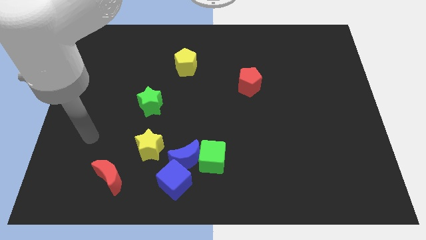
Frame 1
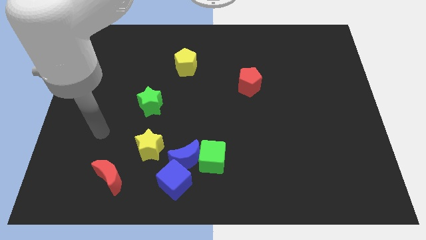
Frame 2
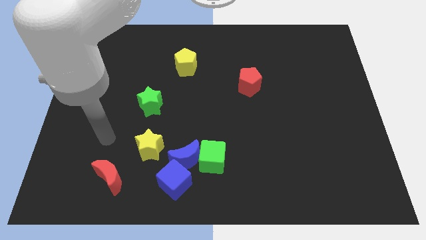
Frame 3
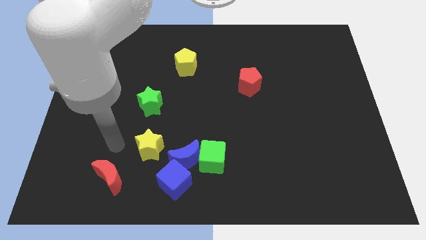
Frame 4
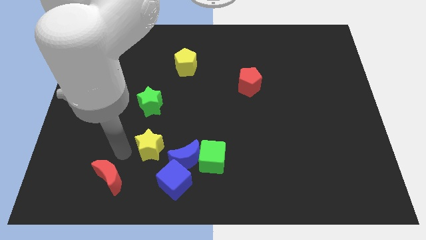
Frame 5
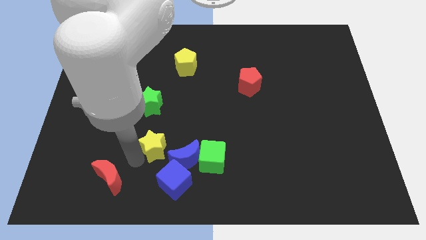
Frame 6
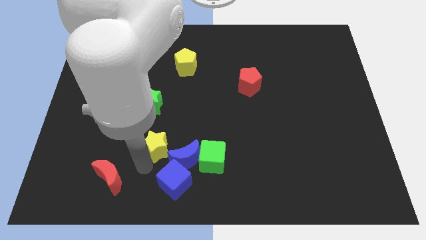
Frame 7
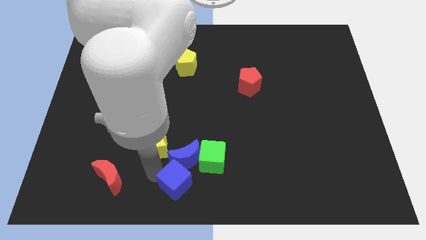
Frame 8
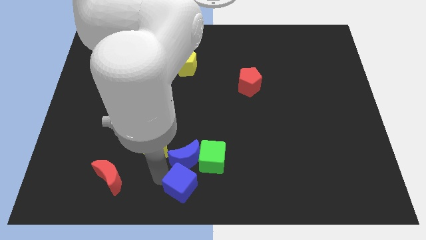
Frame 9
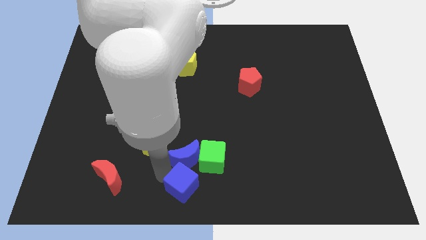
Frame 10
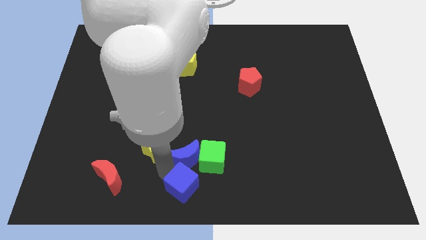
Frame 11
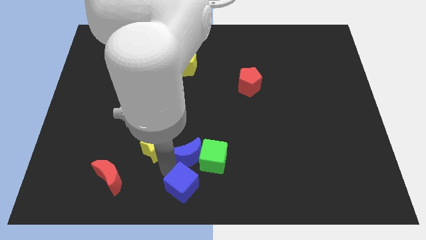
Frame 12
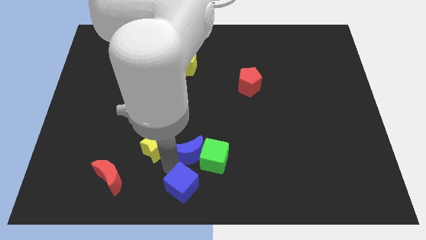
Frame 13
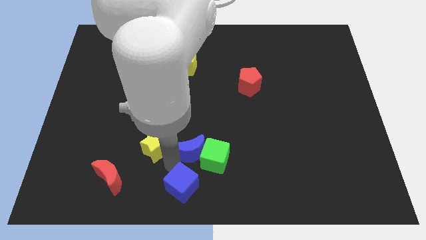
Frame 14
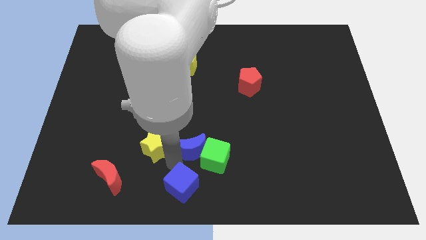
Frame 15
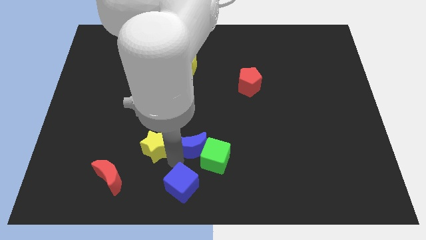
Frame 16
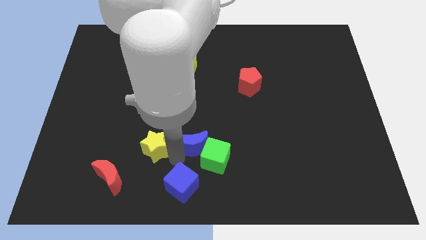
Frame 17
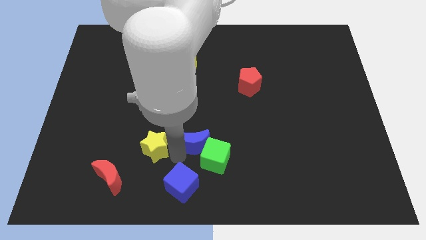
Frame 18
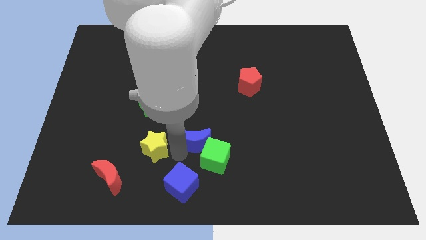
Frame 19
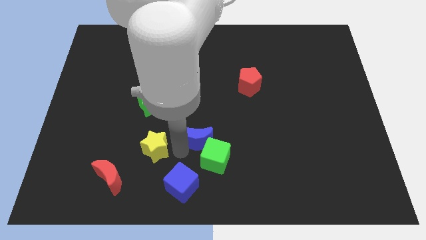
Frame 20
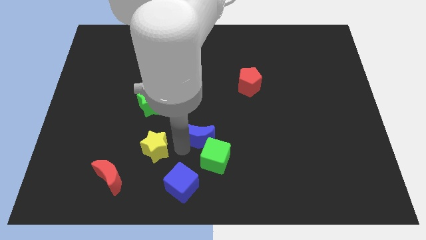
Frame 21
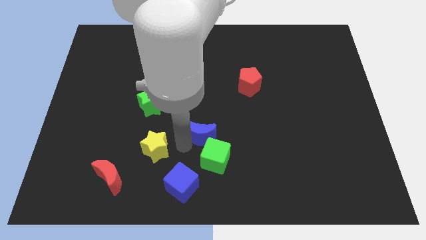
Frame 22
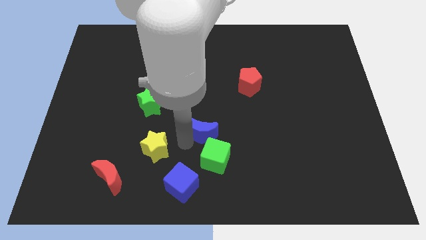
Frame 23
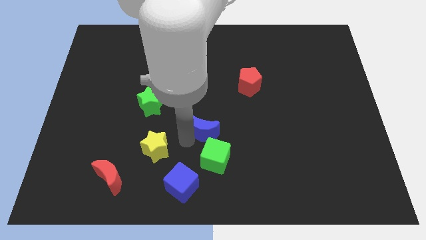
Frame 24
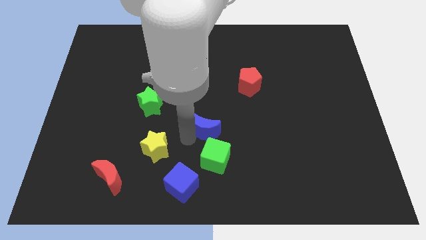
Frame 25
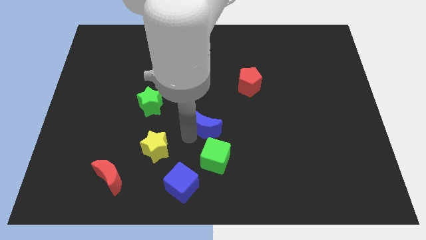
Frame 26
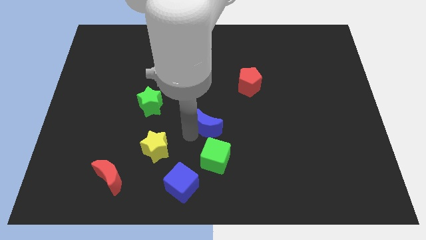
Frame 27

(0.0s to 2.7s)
separate the blue moon from the clump

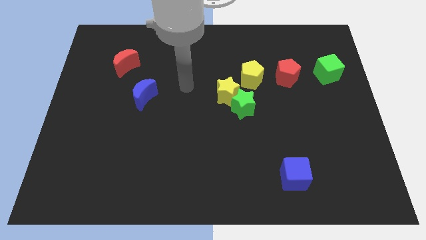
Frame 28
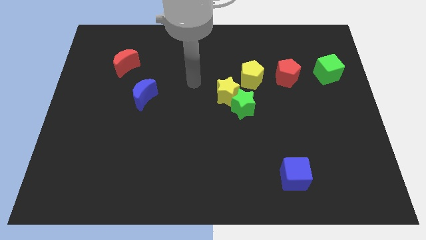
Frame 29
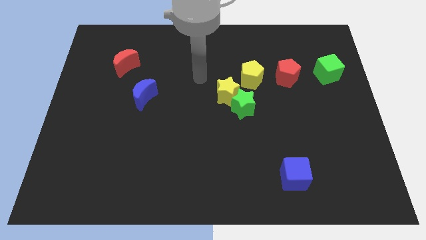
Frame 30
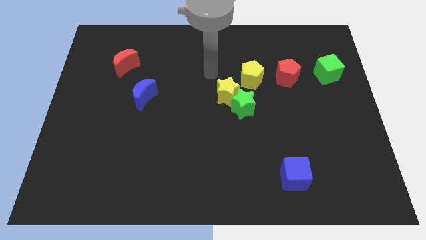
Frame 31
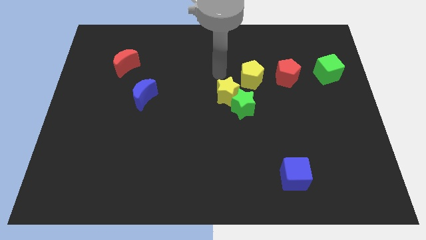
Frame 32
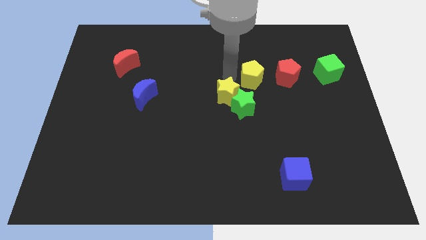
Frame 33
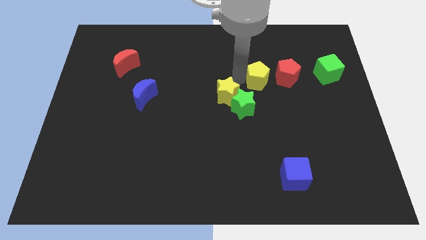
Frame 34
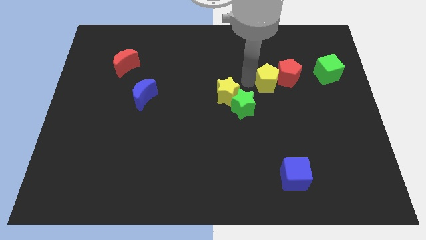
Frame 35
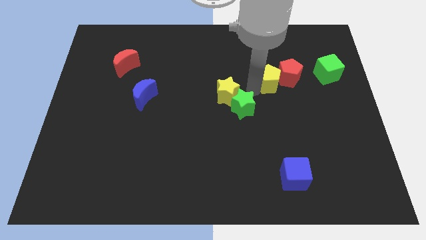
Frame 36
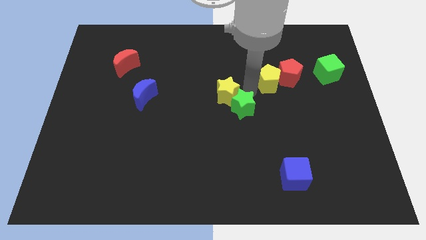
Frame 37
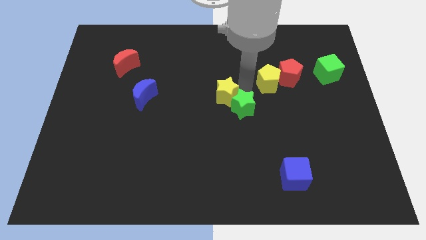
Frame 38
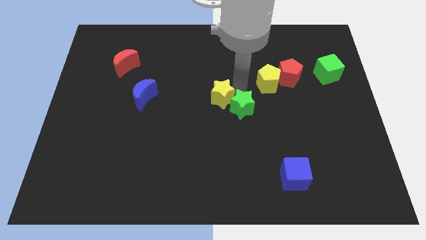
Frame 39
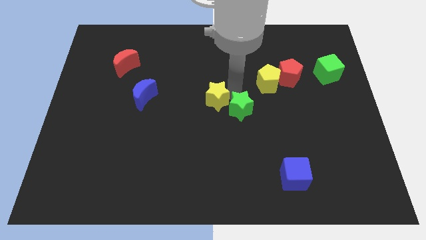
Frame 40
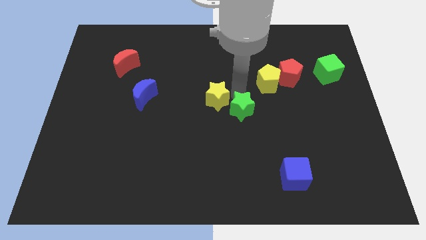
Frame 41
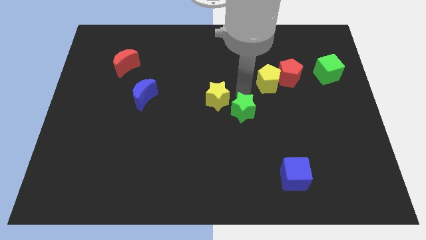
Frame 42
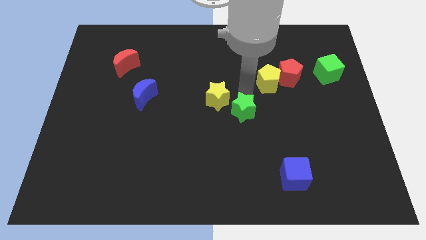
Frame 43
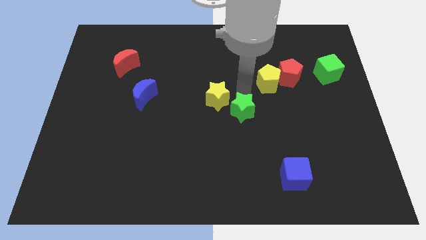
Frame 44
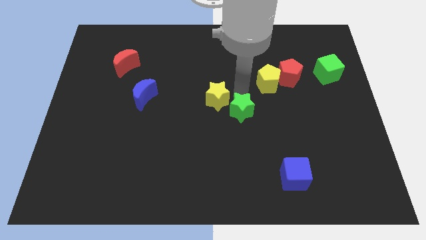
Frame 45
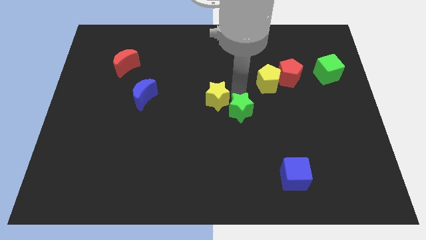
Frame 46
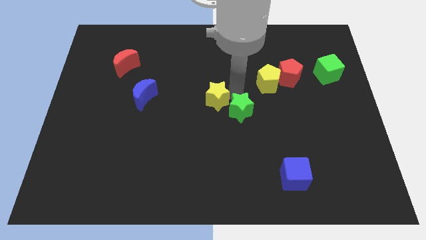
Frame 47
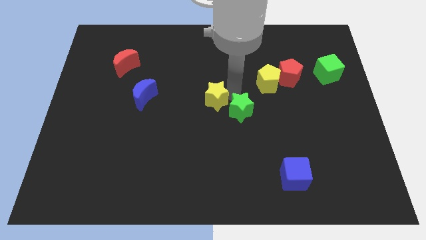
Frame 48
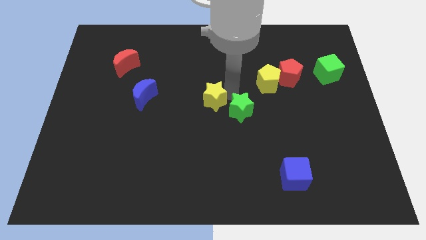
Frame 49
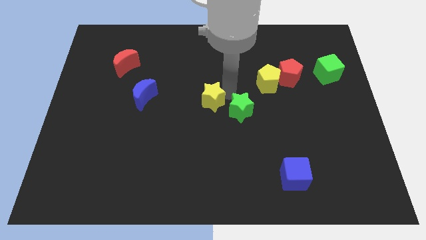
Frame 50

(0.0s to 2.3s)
separate the yellow star from the green star and yellow pentagon

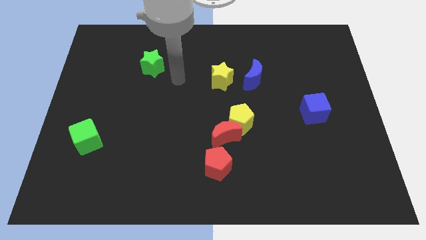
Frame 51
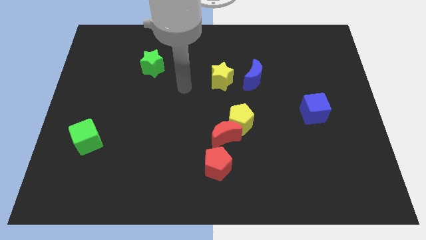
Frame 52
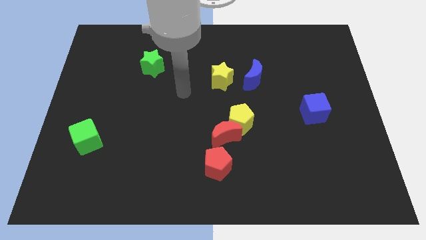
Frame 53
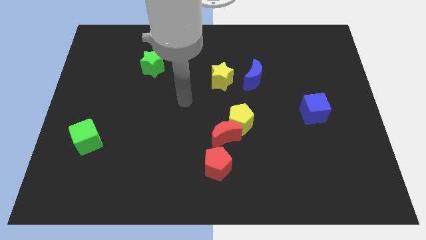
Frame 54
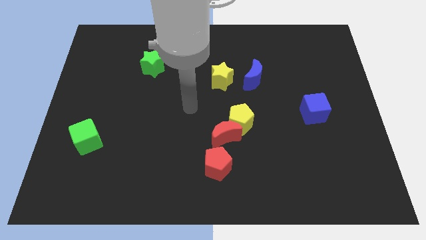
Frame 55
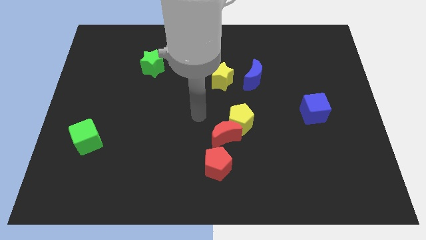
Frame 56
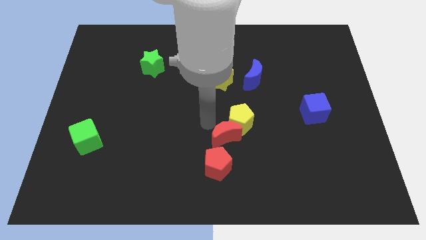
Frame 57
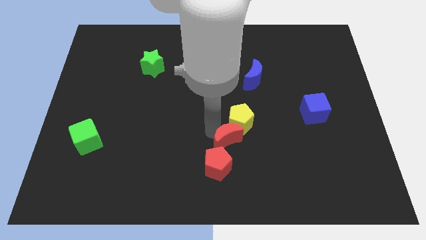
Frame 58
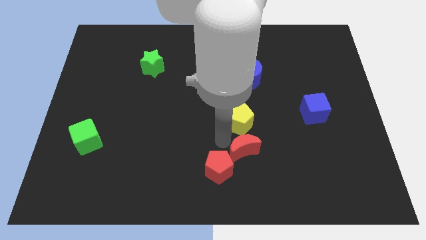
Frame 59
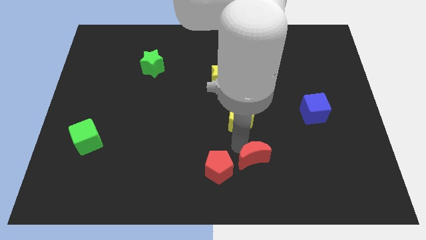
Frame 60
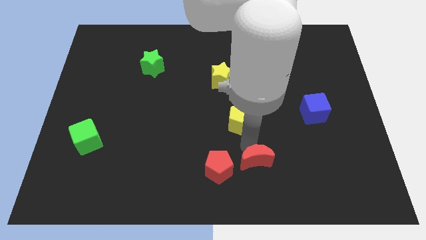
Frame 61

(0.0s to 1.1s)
move the yellow pentagon away from the red moon

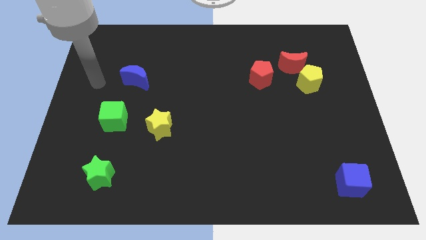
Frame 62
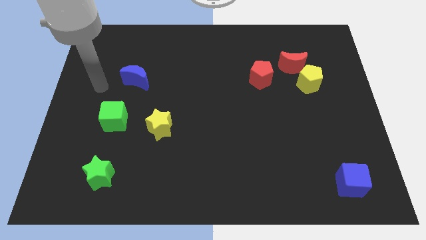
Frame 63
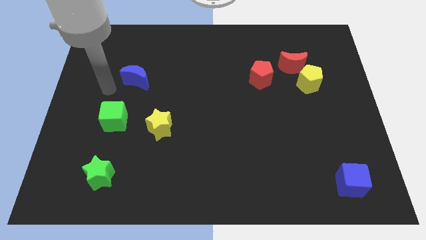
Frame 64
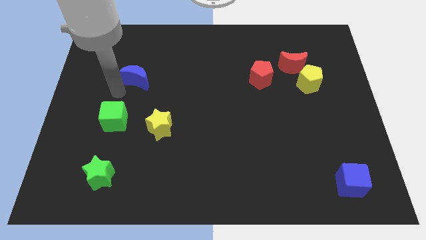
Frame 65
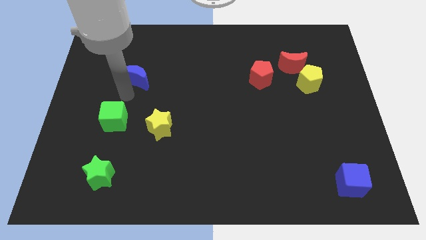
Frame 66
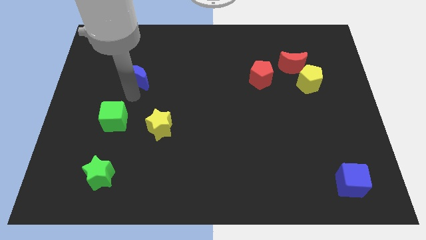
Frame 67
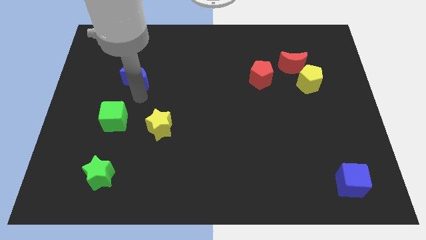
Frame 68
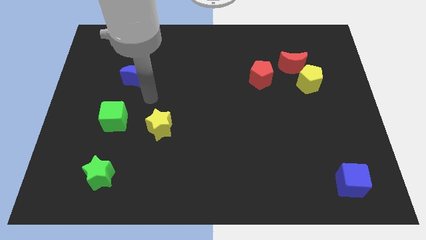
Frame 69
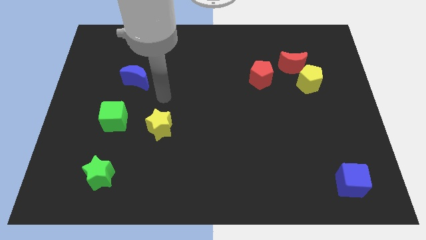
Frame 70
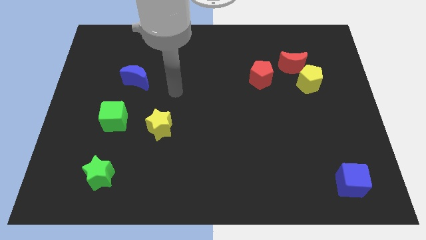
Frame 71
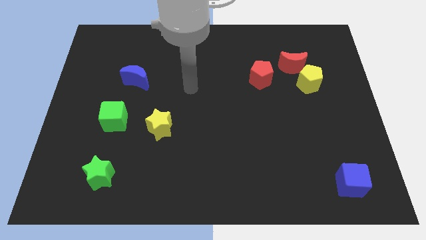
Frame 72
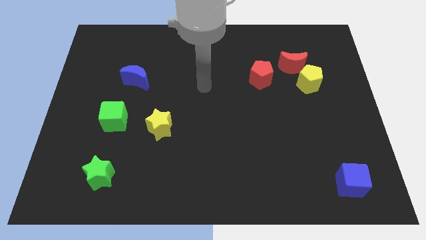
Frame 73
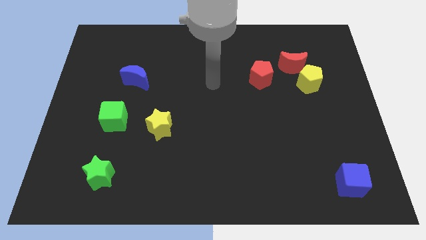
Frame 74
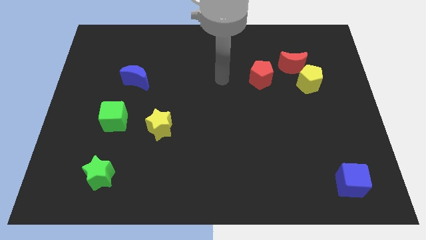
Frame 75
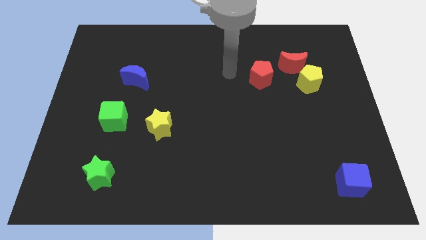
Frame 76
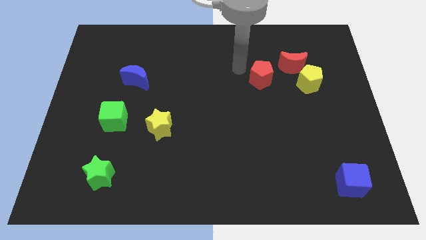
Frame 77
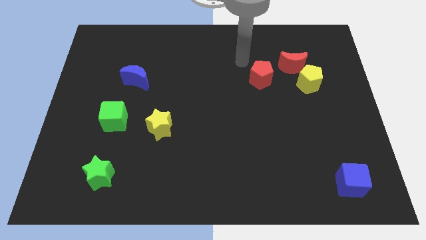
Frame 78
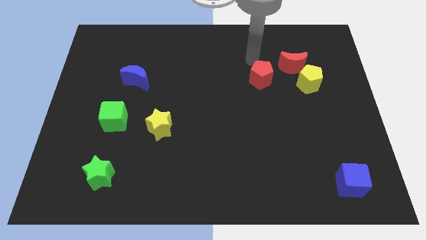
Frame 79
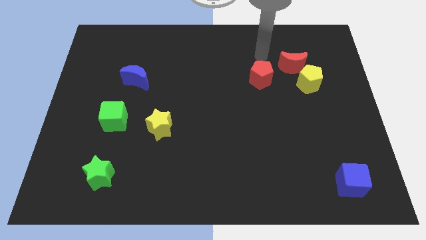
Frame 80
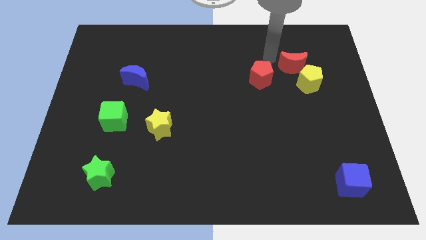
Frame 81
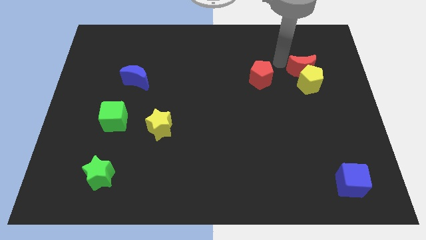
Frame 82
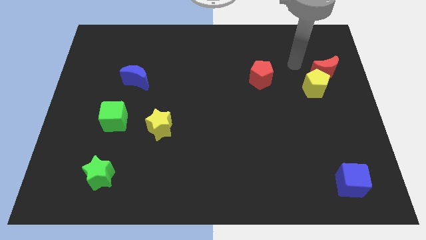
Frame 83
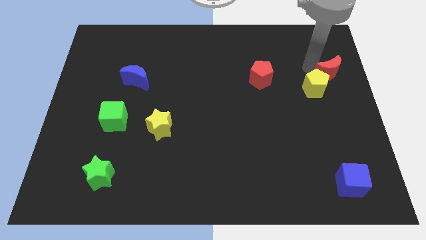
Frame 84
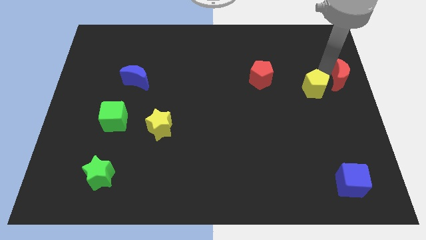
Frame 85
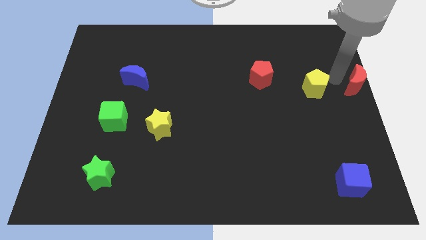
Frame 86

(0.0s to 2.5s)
pull the yellow pentagon apart from the red moon

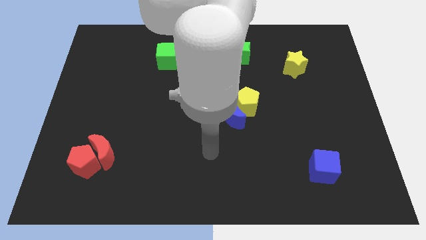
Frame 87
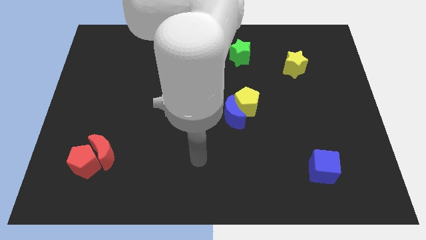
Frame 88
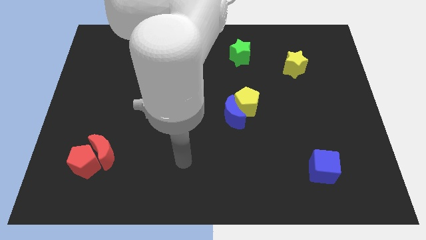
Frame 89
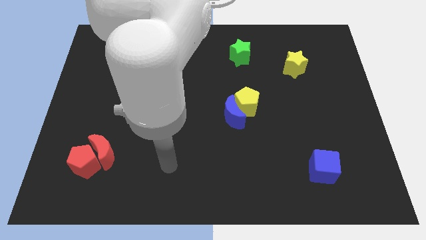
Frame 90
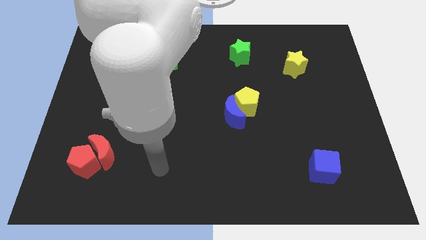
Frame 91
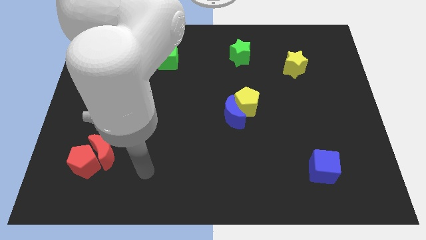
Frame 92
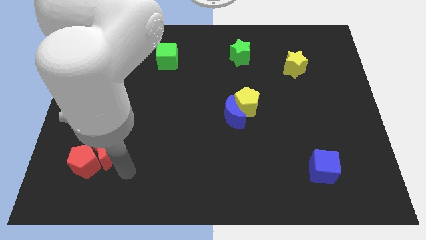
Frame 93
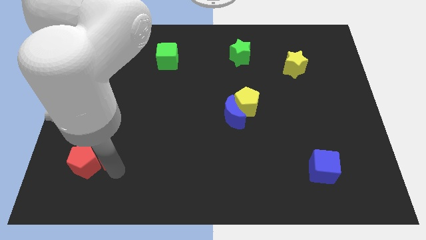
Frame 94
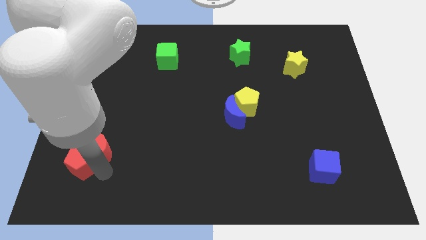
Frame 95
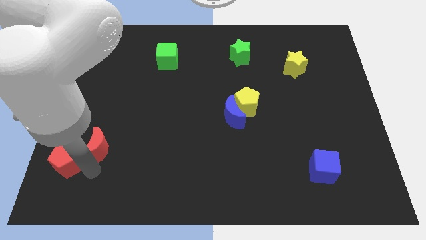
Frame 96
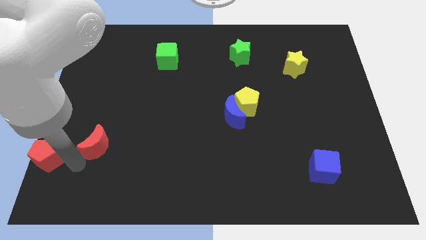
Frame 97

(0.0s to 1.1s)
separate the red moon from the red pentagon
